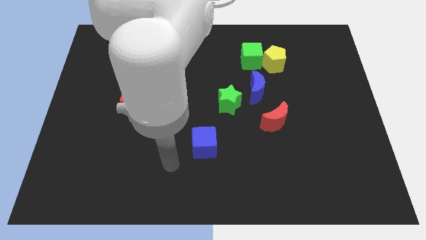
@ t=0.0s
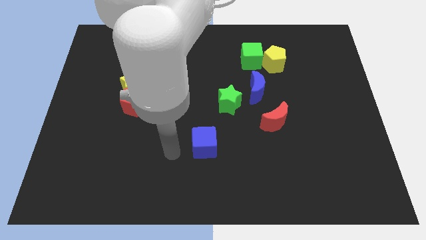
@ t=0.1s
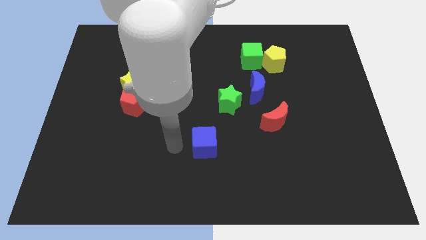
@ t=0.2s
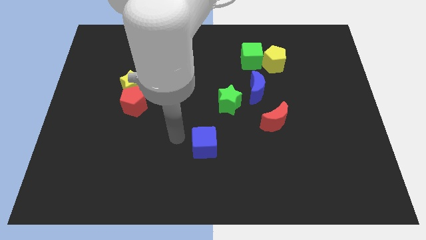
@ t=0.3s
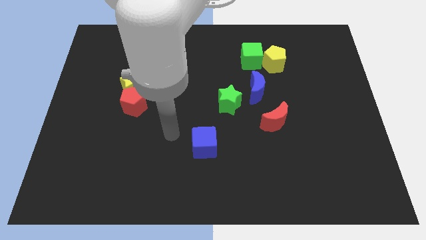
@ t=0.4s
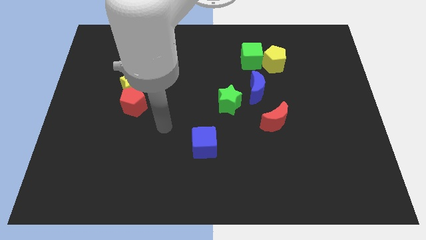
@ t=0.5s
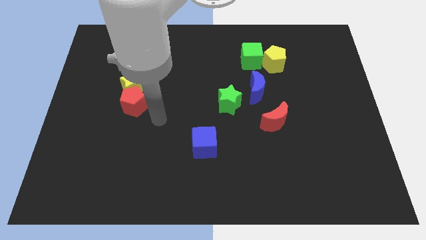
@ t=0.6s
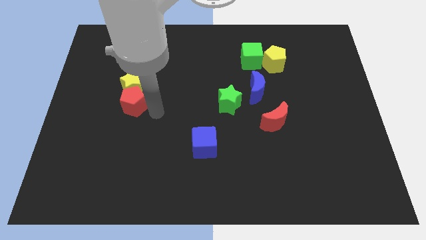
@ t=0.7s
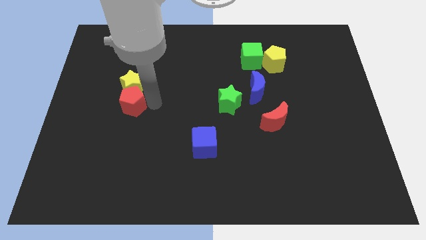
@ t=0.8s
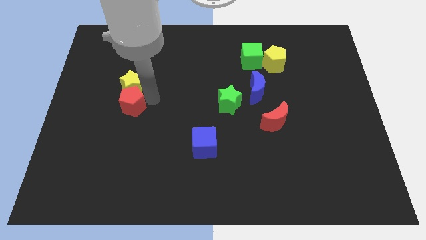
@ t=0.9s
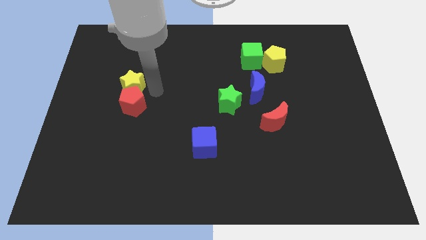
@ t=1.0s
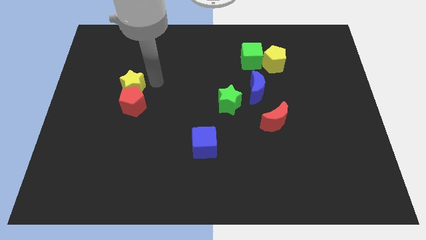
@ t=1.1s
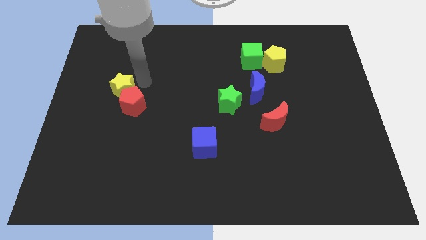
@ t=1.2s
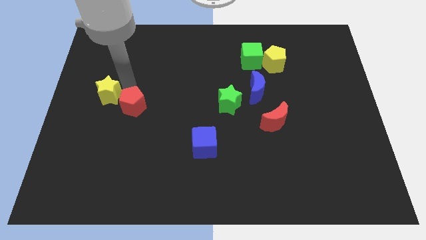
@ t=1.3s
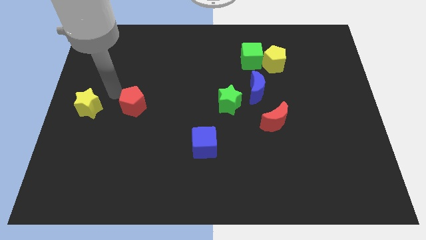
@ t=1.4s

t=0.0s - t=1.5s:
pull the red pentagon apart from the yellow star

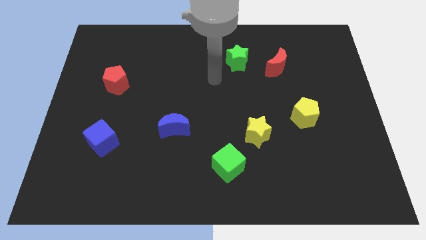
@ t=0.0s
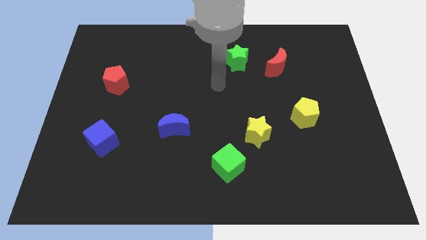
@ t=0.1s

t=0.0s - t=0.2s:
move the green cube away from the yellow star

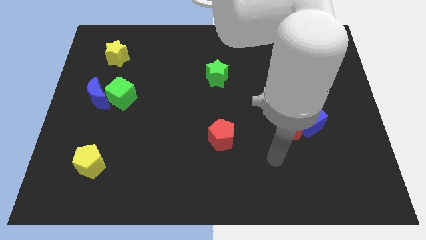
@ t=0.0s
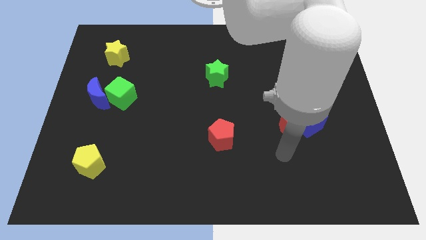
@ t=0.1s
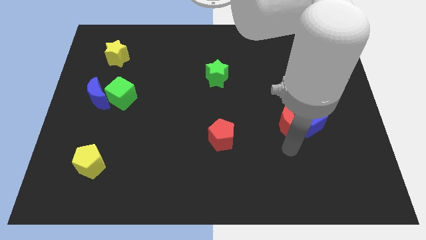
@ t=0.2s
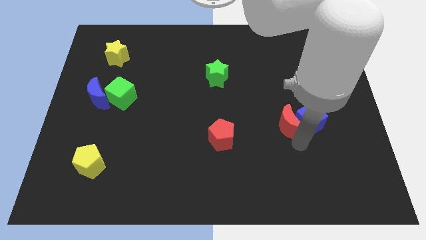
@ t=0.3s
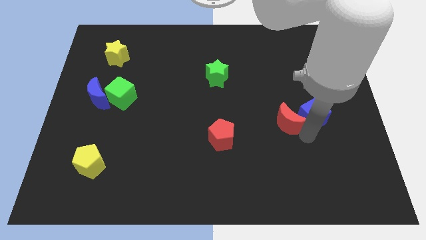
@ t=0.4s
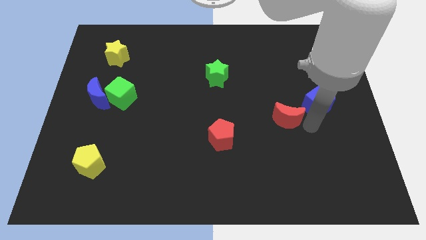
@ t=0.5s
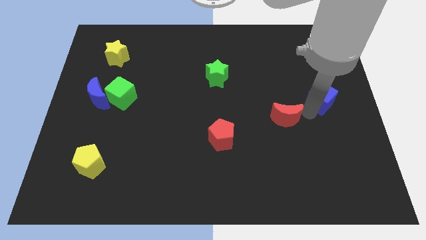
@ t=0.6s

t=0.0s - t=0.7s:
pull the red moon apart from the blue cube

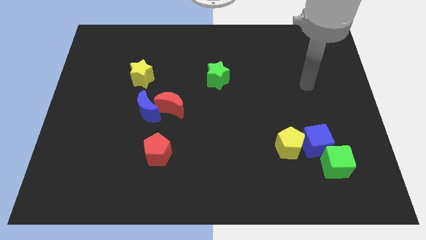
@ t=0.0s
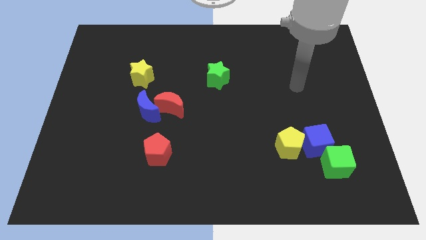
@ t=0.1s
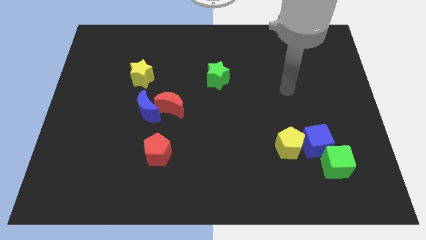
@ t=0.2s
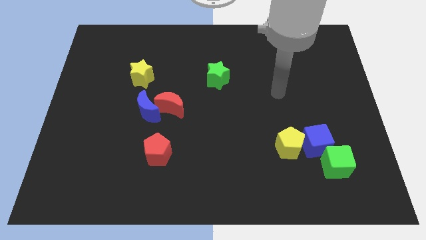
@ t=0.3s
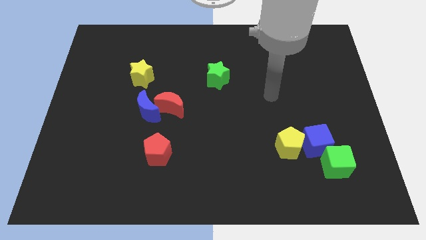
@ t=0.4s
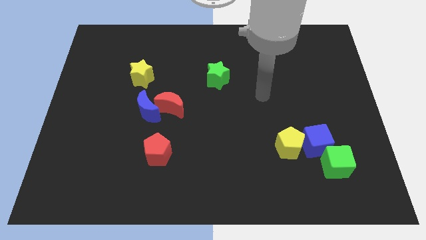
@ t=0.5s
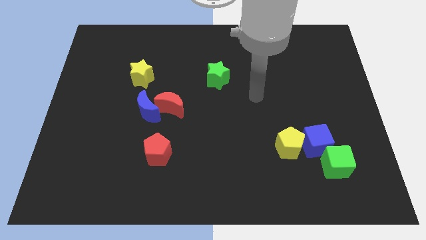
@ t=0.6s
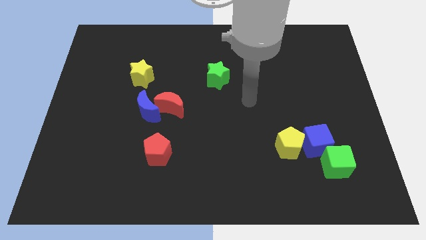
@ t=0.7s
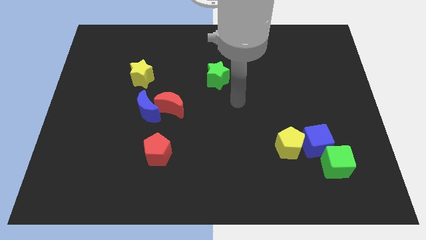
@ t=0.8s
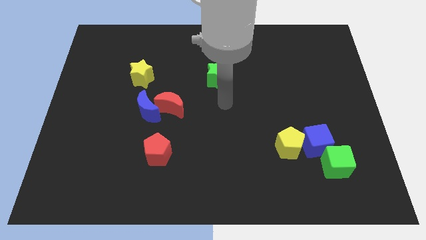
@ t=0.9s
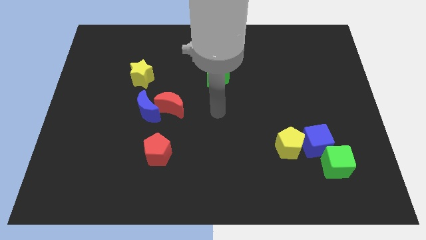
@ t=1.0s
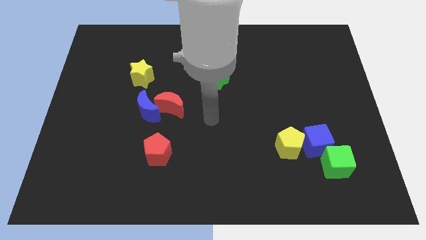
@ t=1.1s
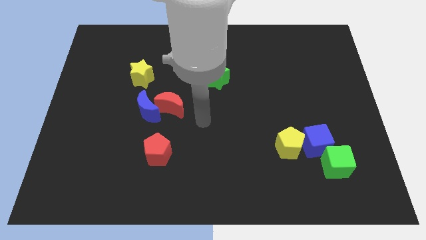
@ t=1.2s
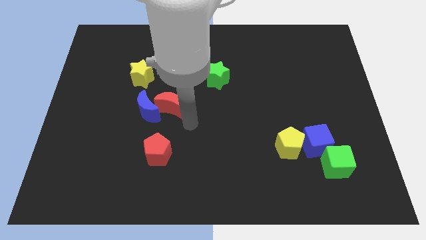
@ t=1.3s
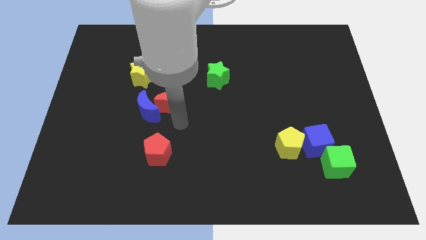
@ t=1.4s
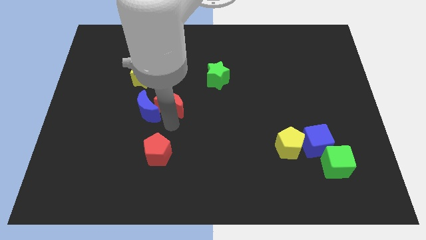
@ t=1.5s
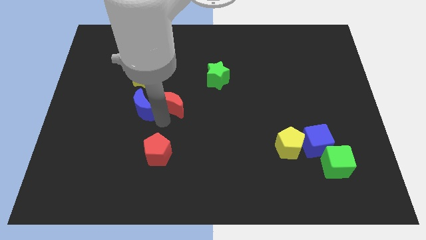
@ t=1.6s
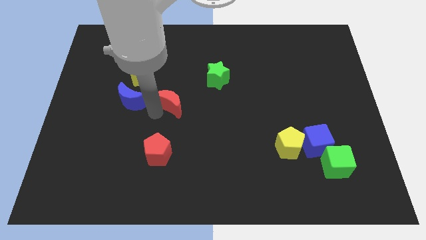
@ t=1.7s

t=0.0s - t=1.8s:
pull the red moon apart from the blue moon

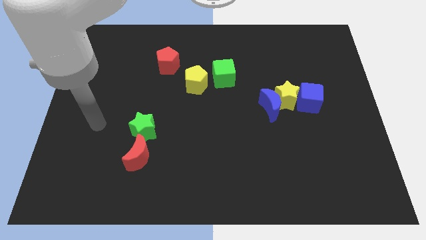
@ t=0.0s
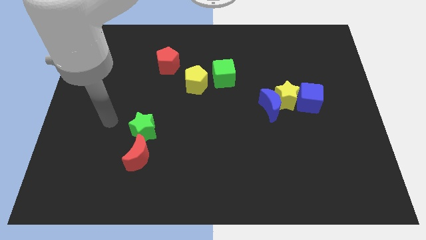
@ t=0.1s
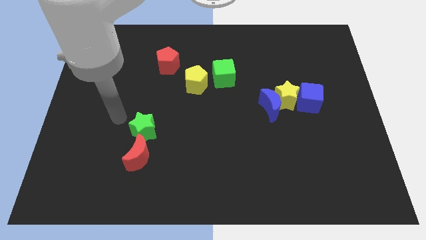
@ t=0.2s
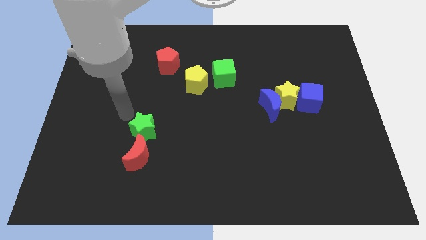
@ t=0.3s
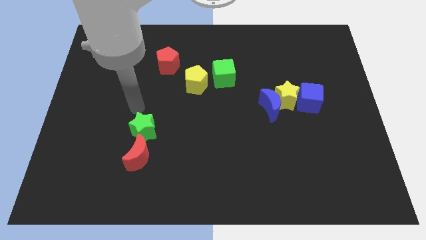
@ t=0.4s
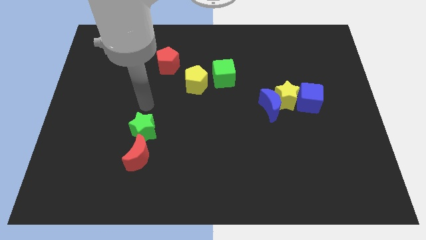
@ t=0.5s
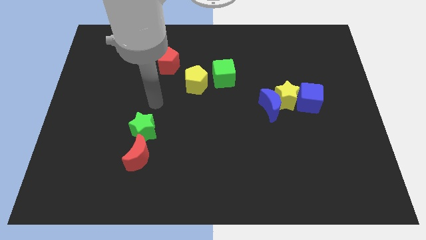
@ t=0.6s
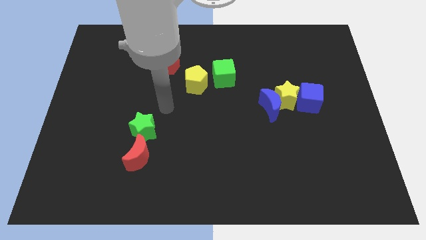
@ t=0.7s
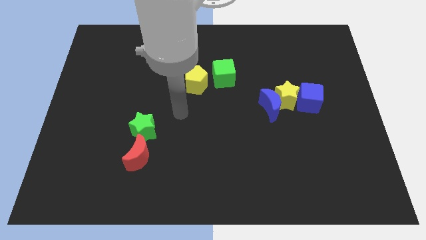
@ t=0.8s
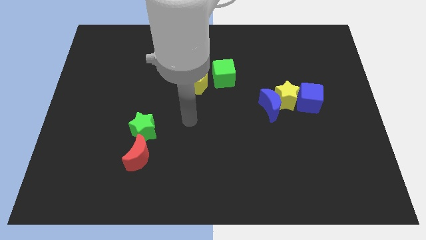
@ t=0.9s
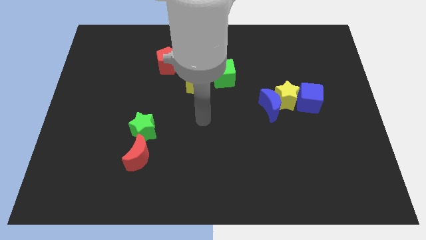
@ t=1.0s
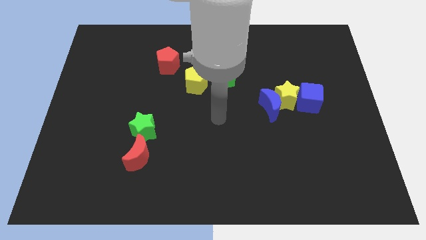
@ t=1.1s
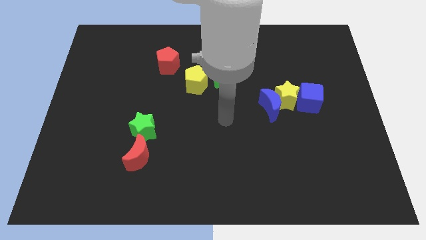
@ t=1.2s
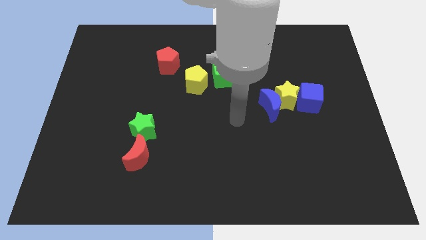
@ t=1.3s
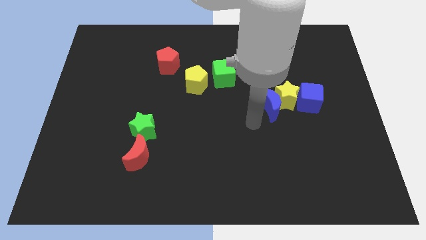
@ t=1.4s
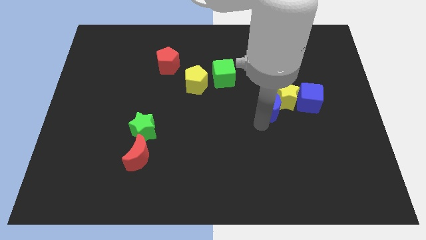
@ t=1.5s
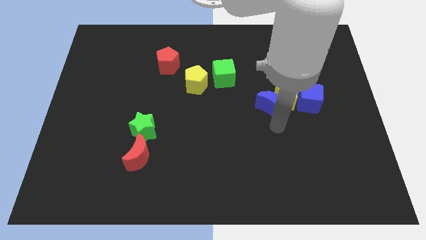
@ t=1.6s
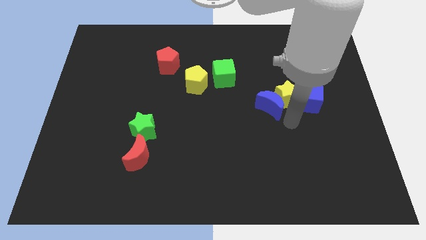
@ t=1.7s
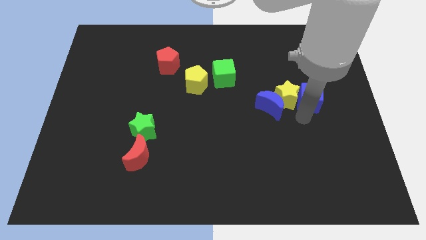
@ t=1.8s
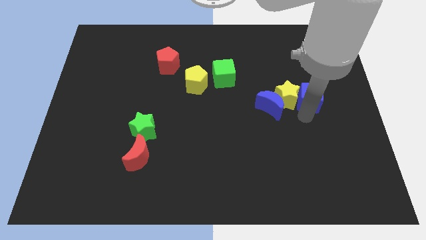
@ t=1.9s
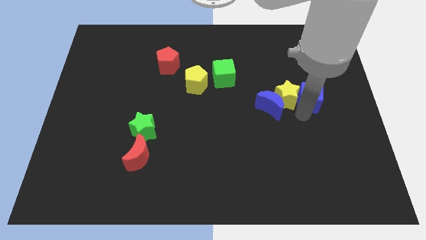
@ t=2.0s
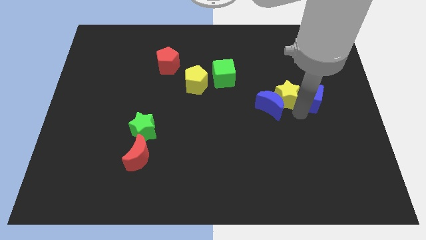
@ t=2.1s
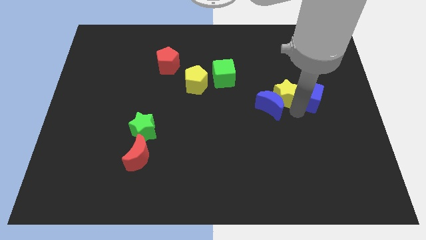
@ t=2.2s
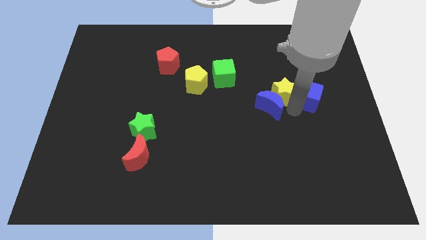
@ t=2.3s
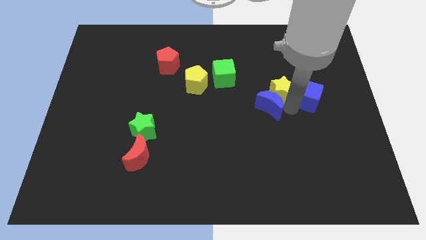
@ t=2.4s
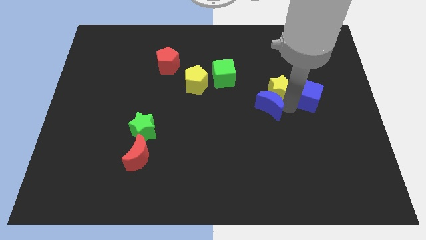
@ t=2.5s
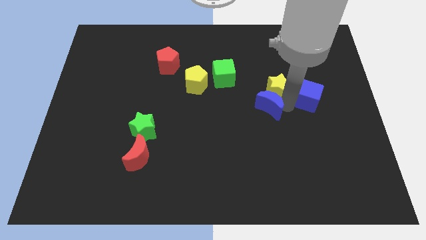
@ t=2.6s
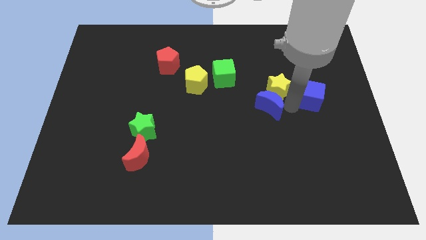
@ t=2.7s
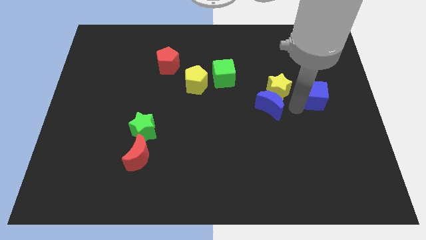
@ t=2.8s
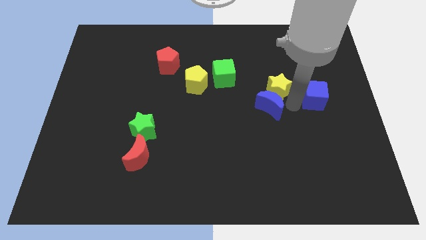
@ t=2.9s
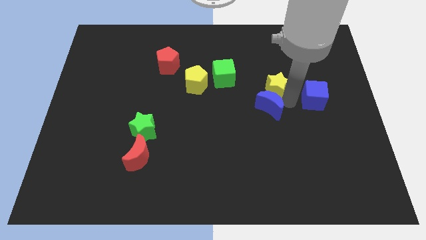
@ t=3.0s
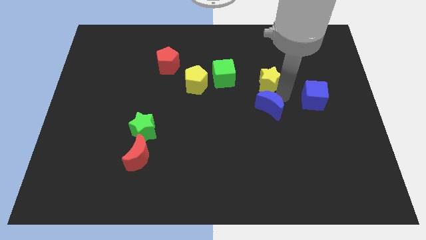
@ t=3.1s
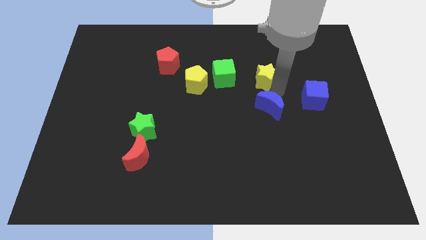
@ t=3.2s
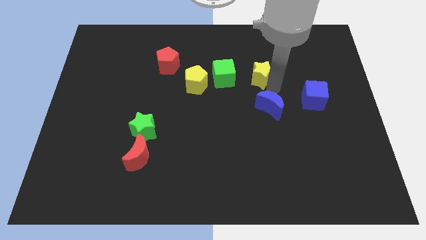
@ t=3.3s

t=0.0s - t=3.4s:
pull the yellow star apart from the blue moon and blue cube

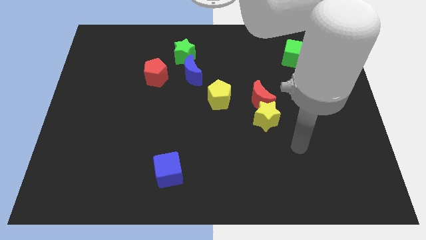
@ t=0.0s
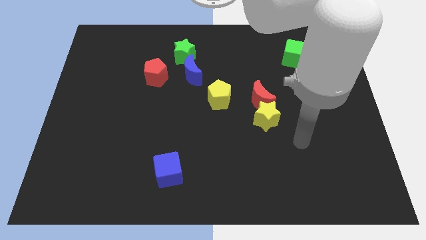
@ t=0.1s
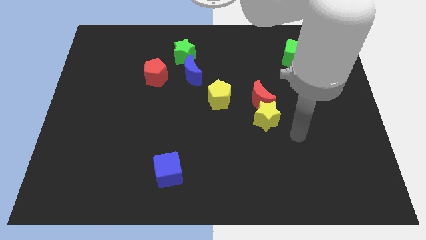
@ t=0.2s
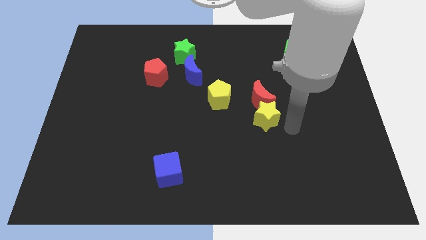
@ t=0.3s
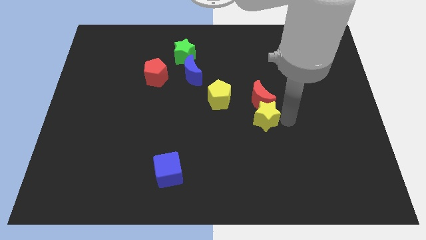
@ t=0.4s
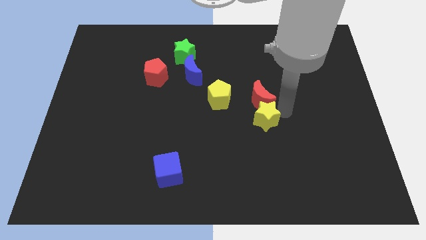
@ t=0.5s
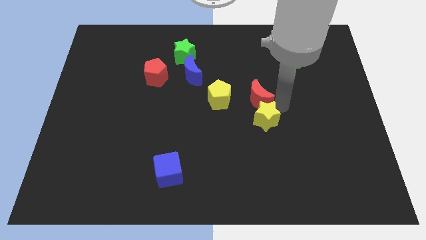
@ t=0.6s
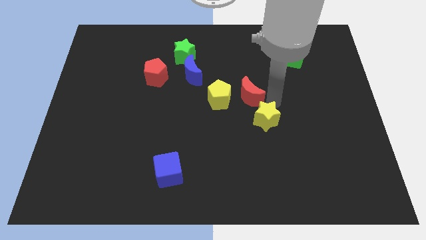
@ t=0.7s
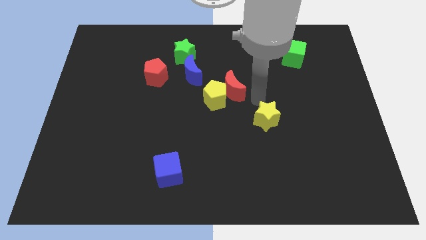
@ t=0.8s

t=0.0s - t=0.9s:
move the yellow star away from the red moon

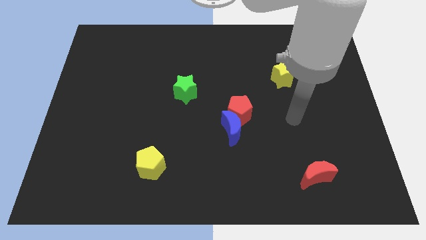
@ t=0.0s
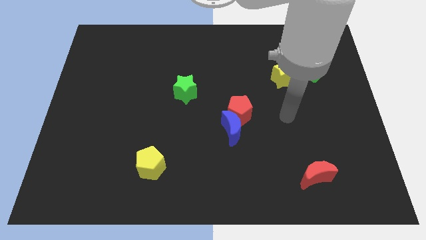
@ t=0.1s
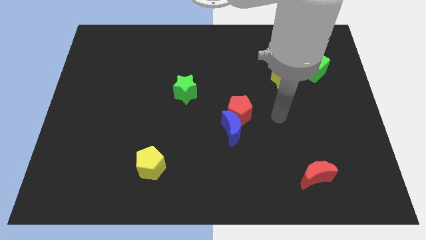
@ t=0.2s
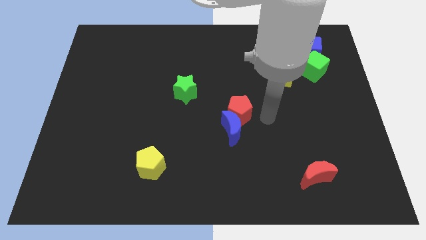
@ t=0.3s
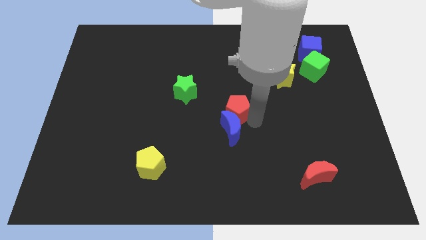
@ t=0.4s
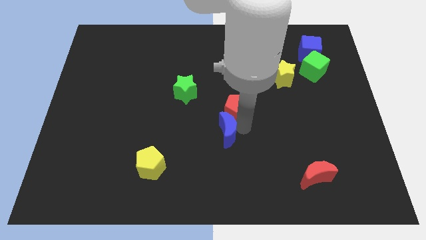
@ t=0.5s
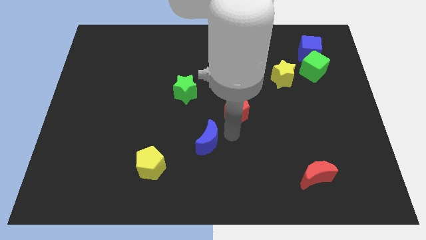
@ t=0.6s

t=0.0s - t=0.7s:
separate the red pentagon from the blue moon
